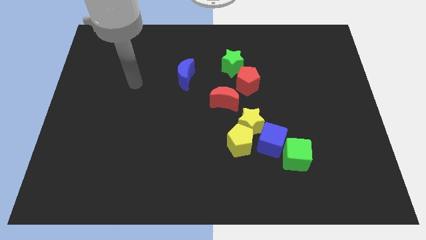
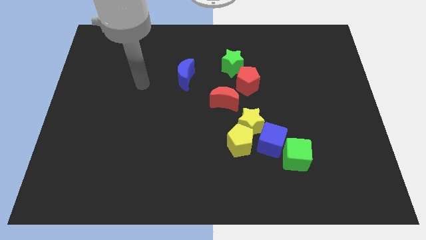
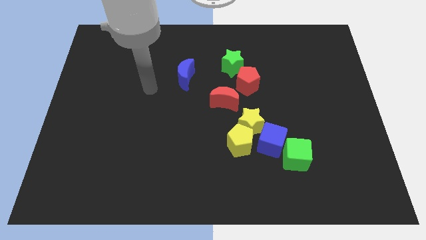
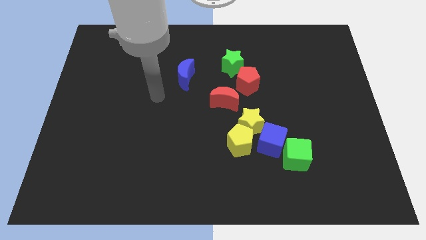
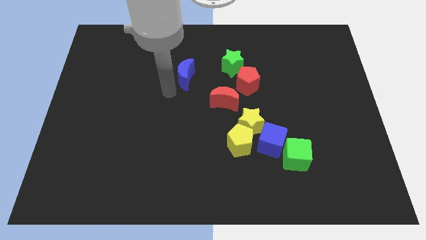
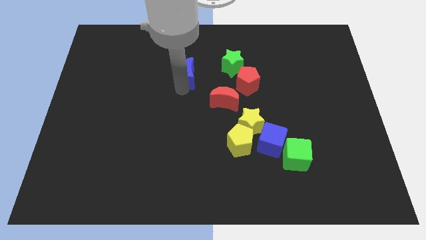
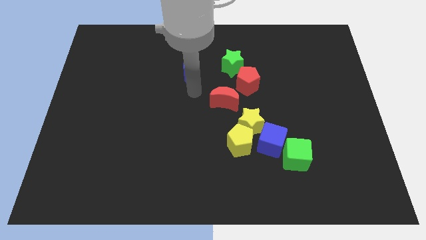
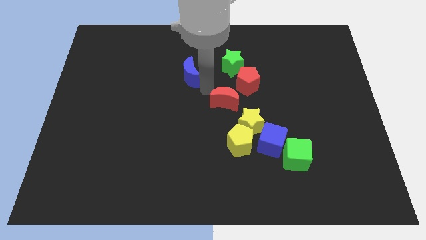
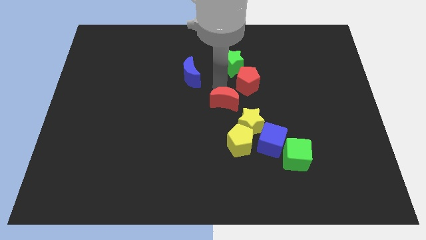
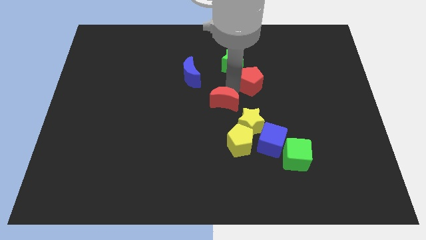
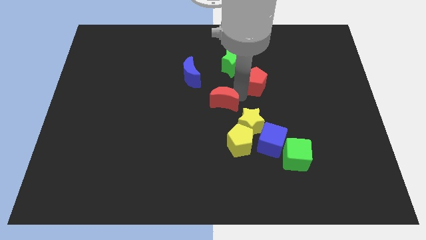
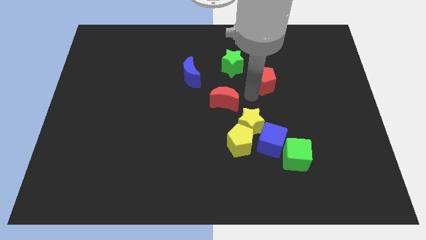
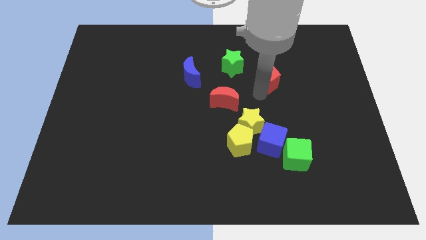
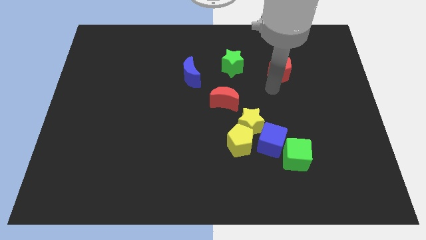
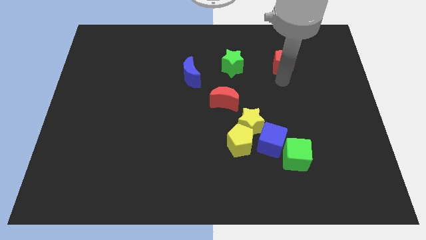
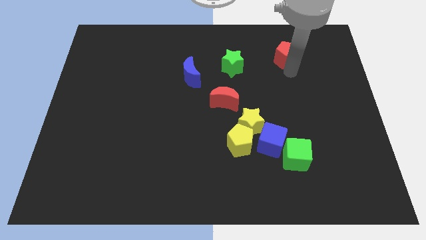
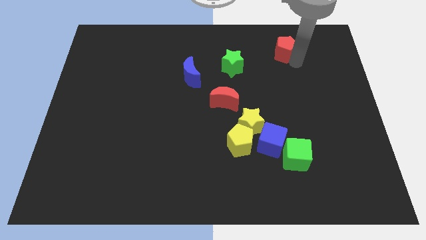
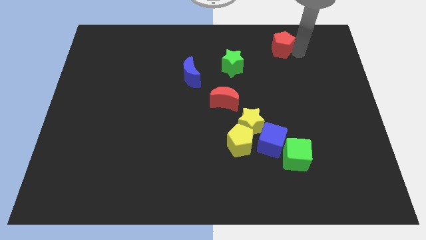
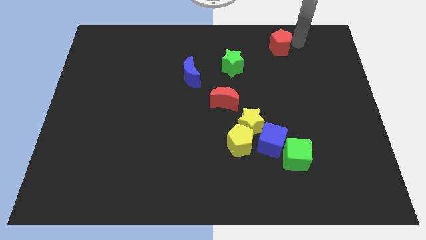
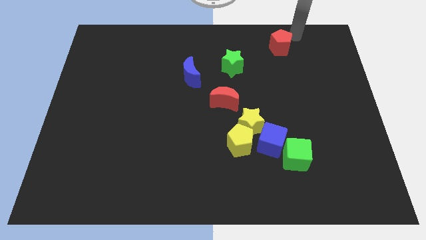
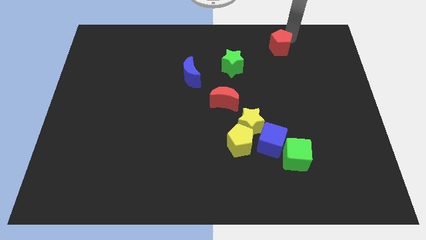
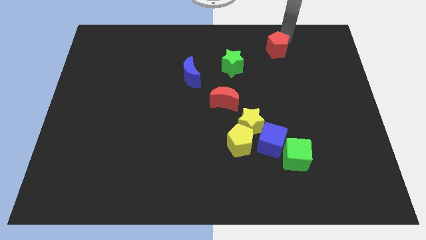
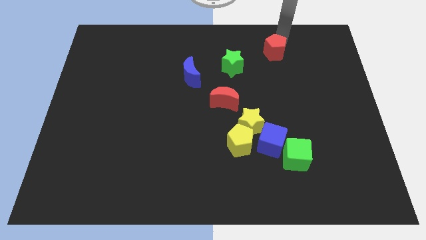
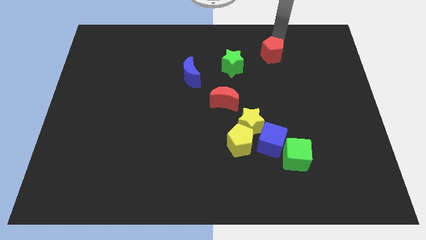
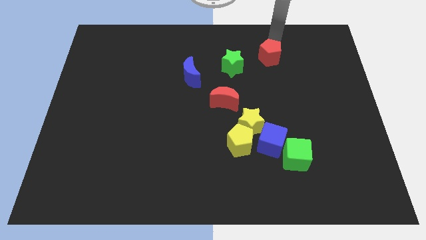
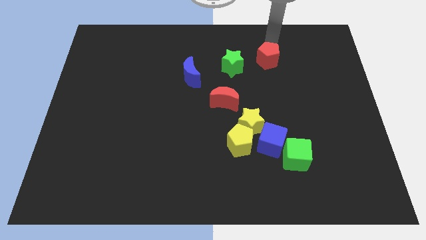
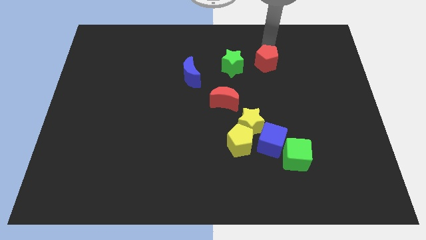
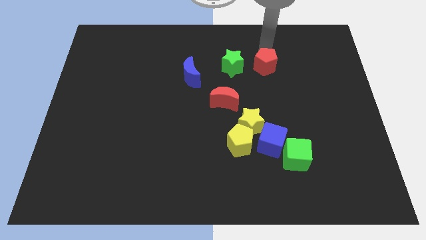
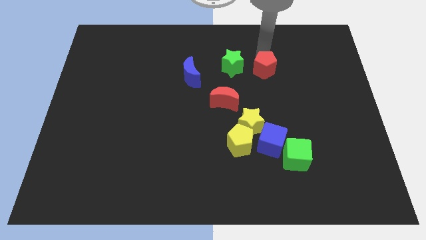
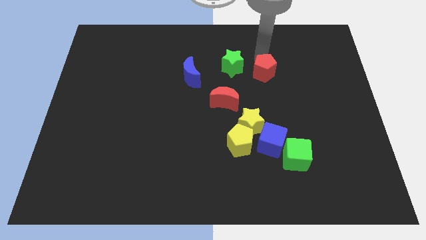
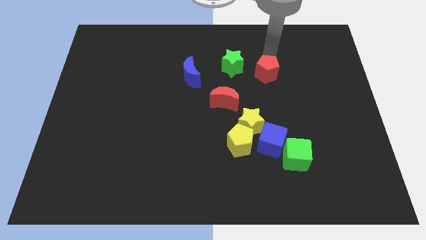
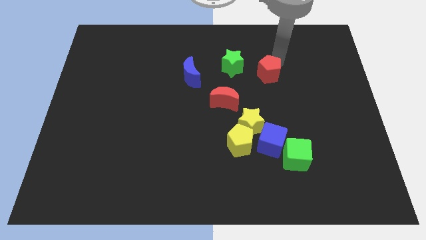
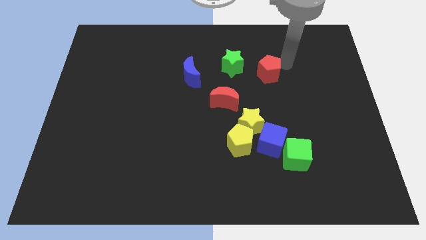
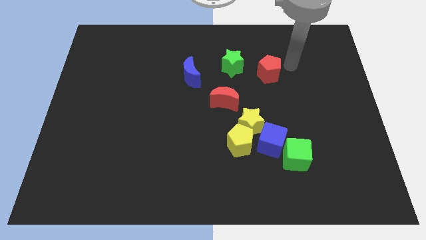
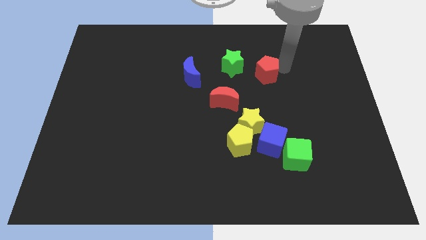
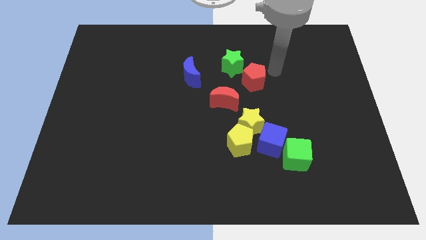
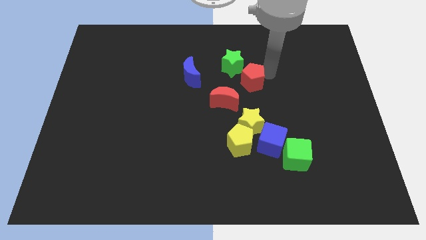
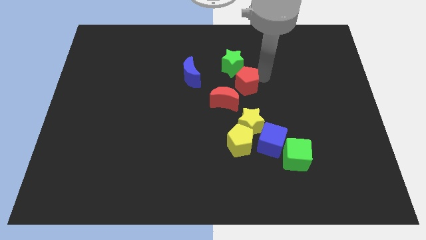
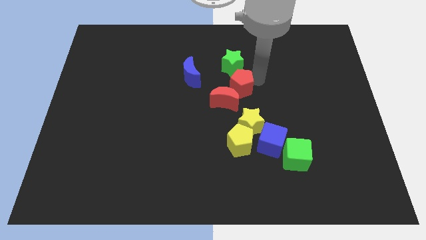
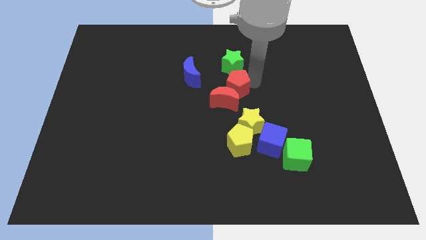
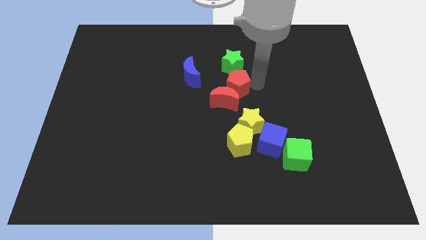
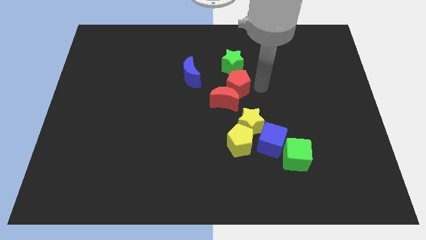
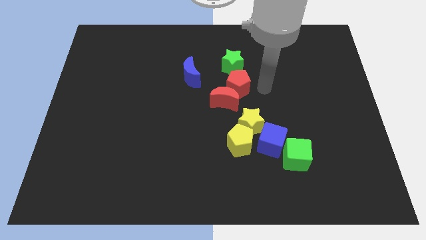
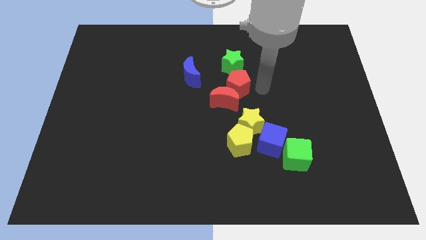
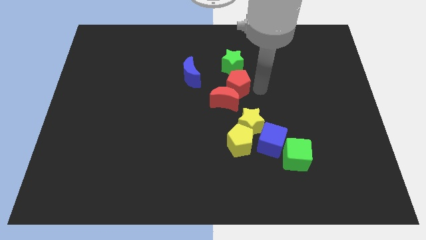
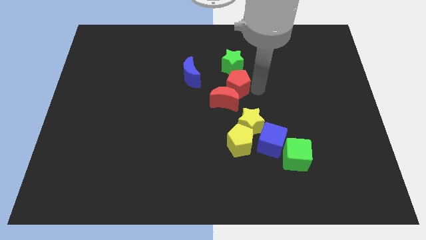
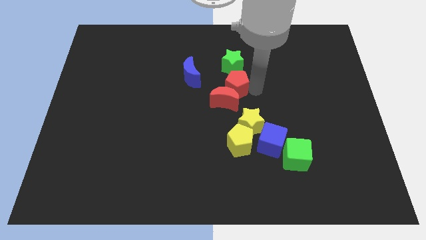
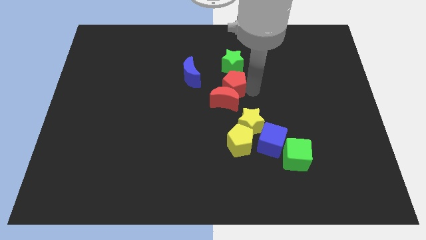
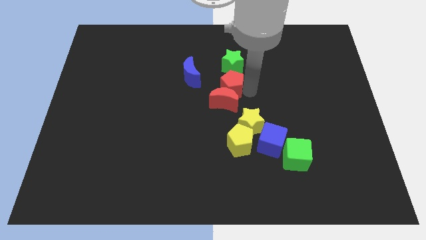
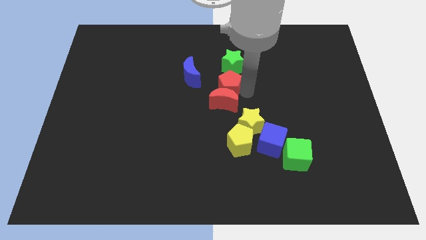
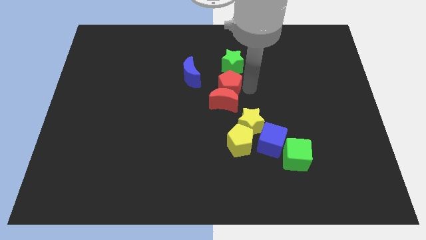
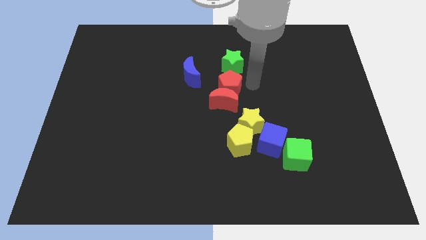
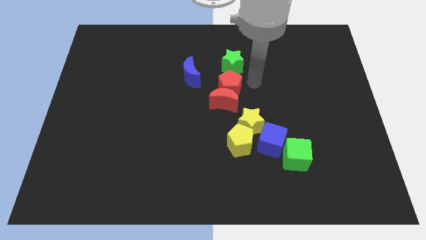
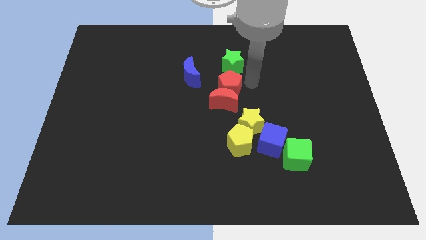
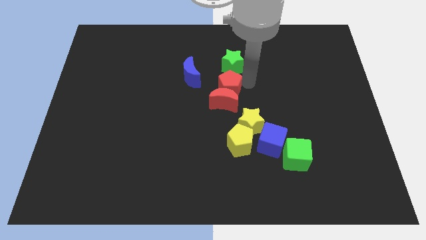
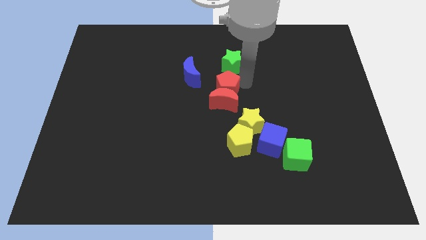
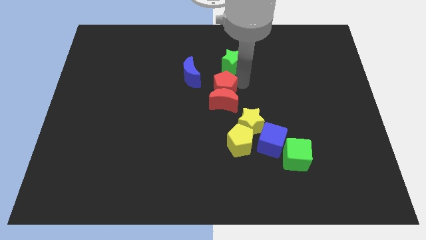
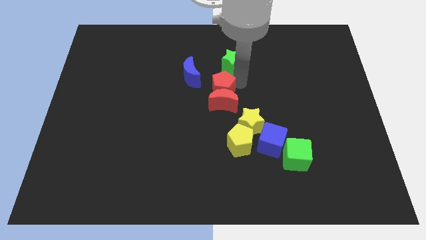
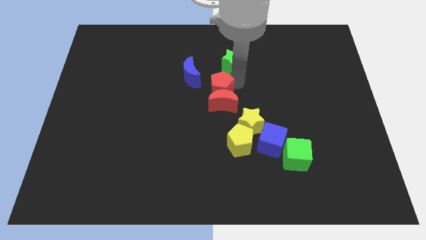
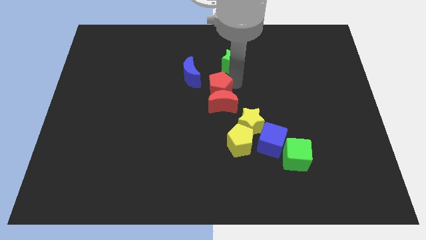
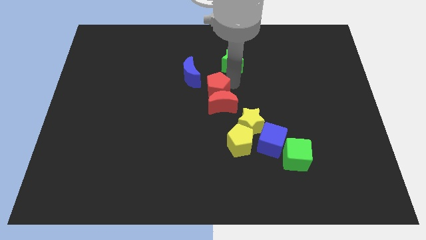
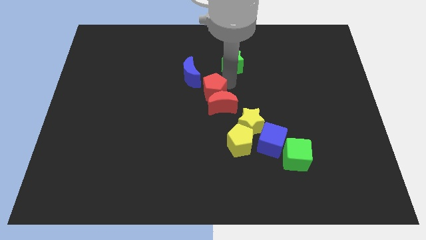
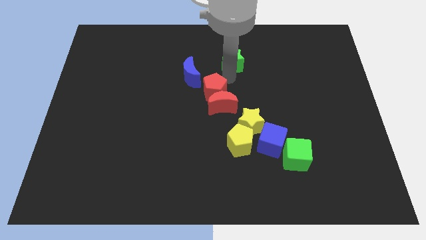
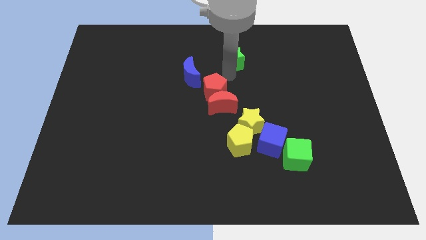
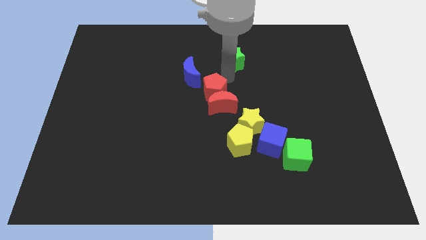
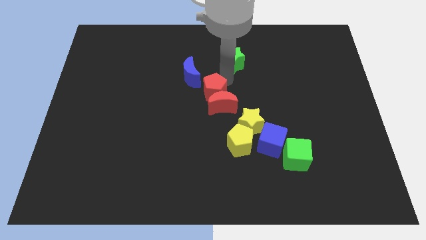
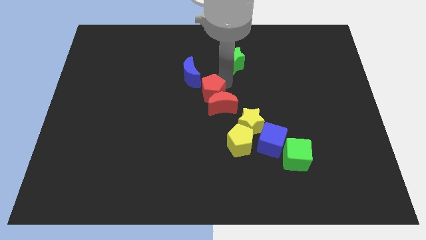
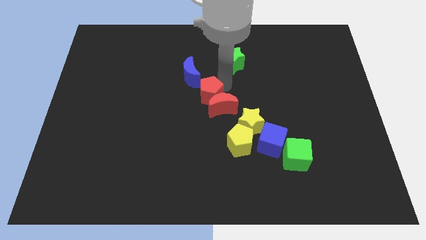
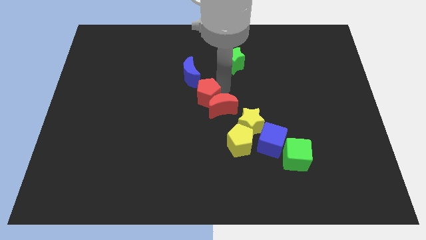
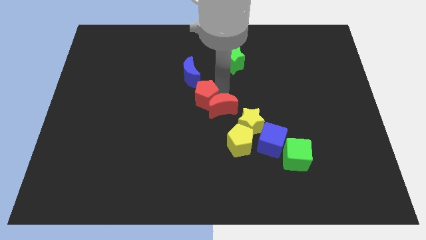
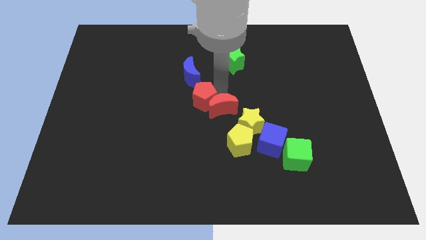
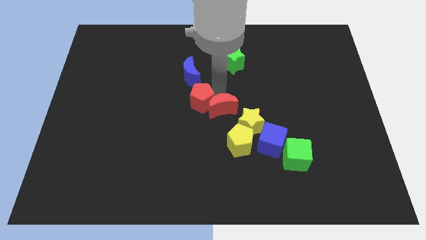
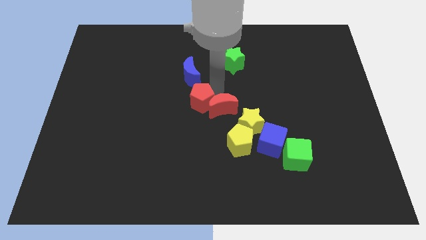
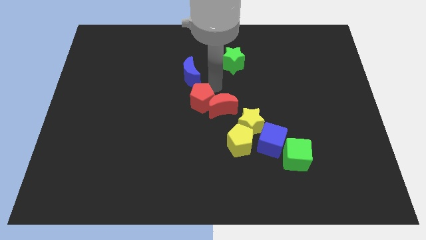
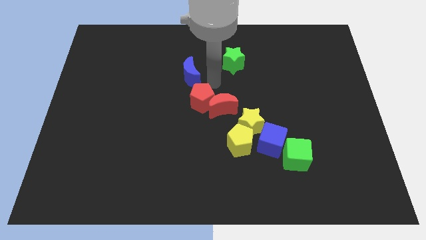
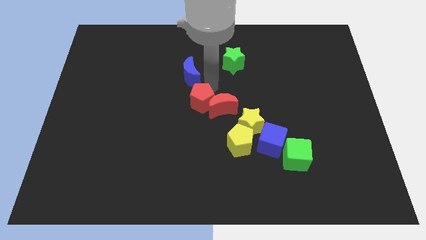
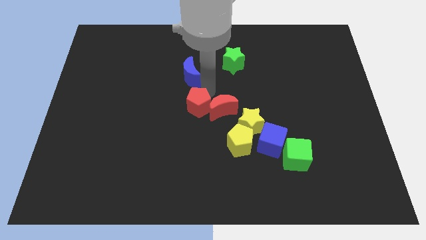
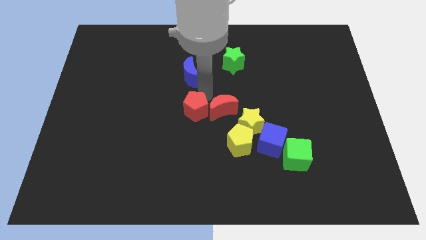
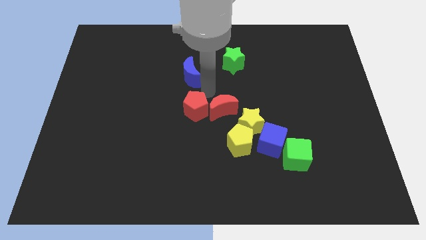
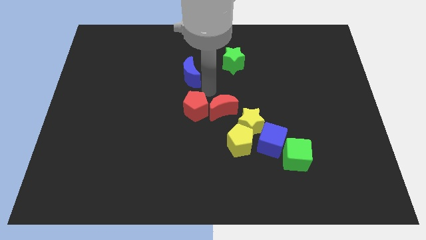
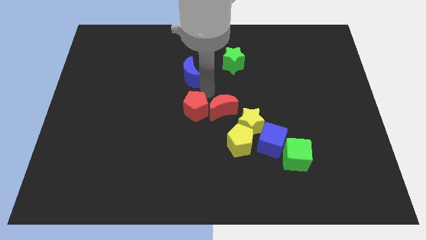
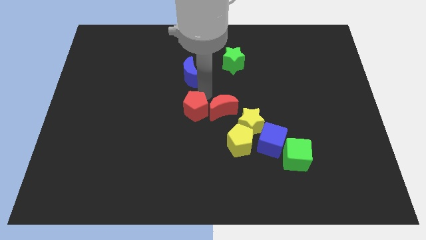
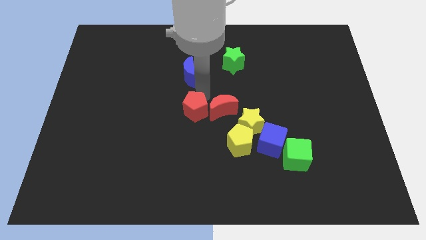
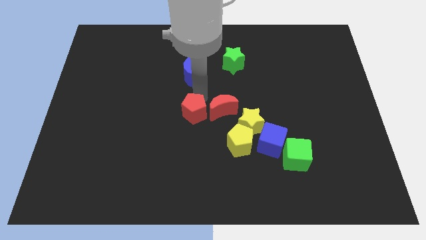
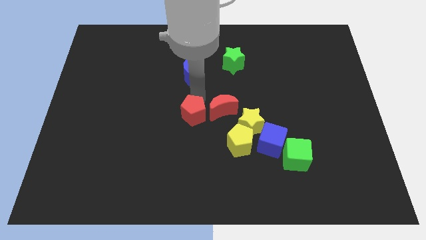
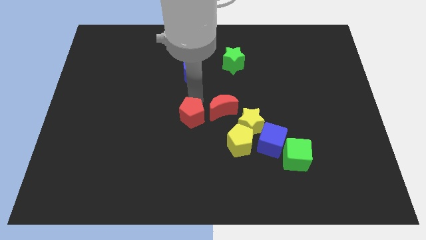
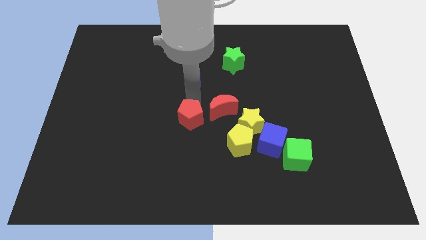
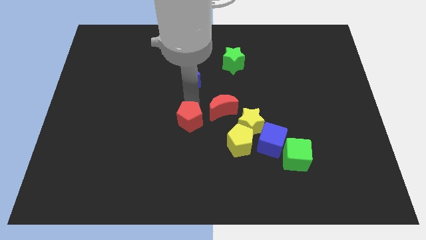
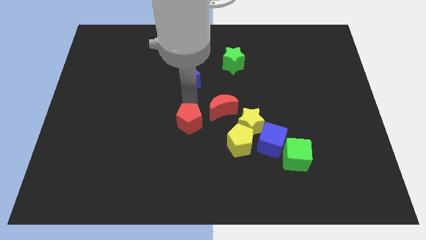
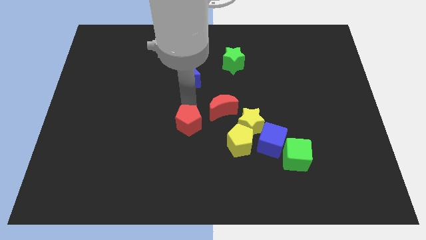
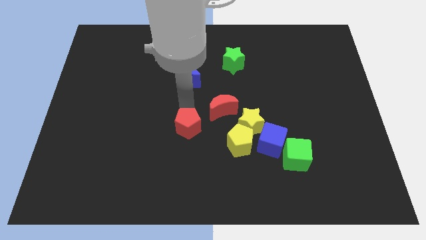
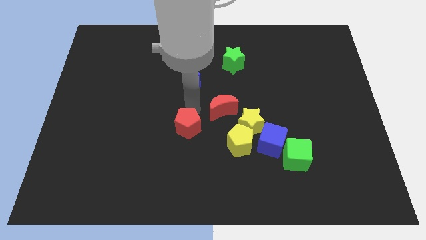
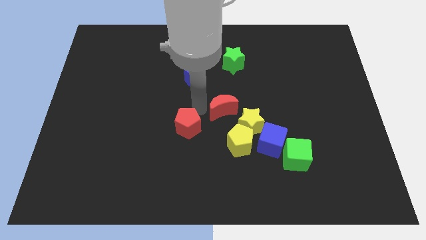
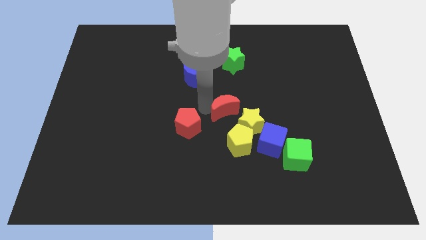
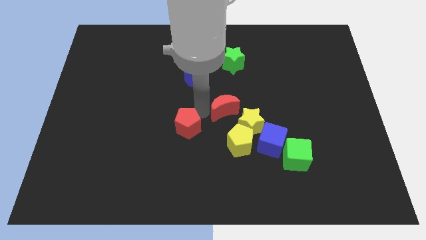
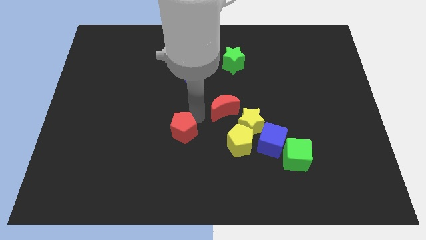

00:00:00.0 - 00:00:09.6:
slide the red pentagon downwards and to the left
